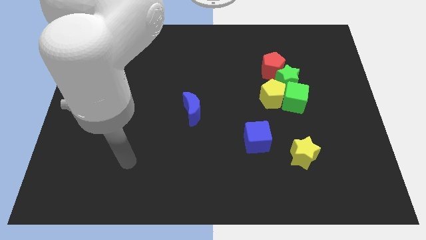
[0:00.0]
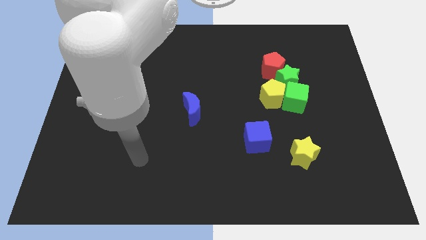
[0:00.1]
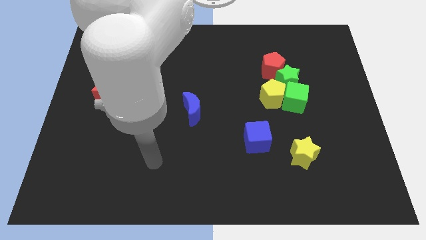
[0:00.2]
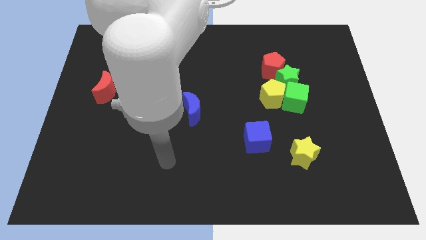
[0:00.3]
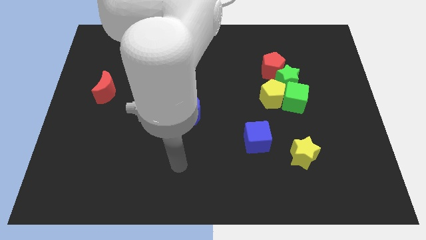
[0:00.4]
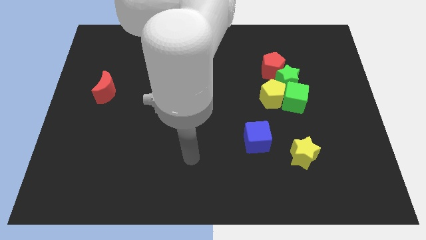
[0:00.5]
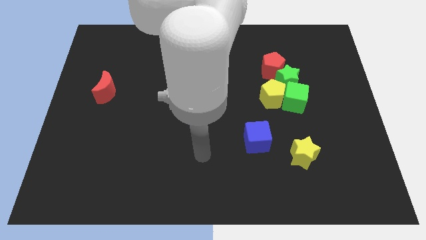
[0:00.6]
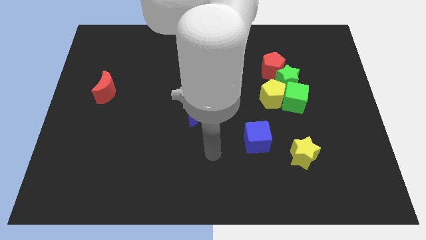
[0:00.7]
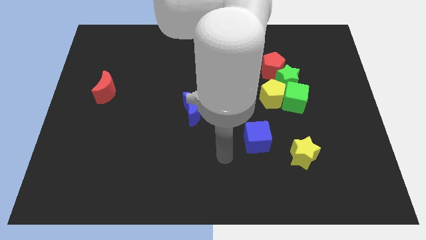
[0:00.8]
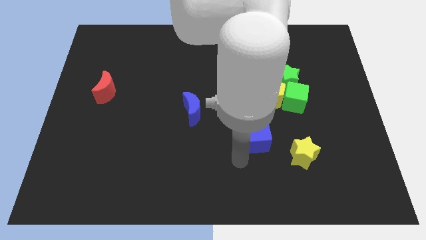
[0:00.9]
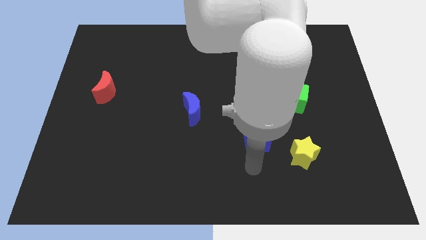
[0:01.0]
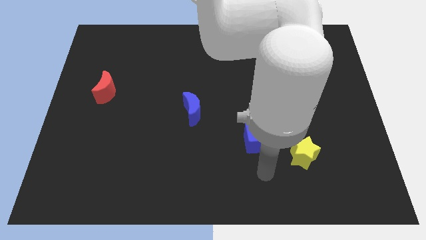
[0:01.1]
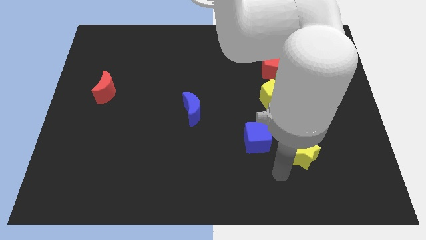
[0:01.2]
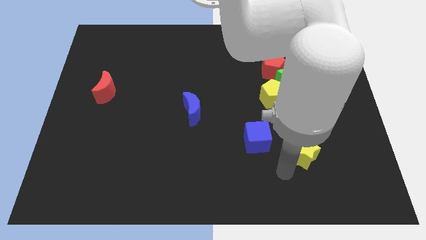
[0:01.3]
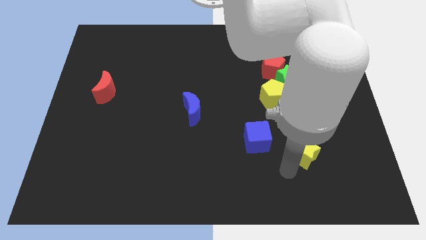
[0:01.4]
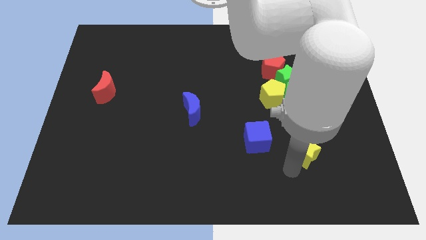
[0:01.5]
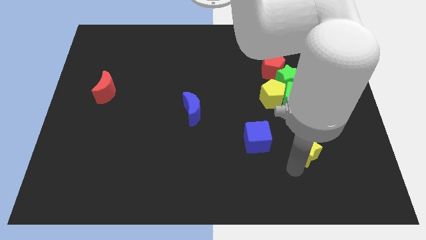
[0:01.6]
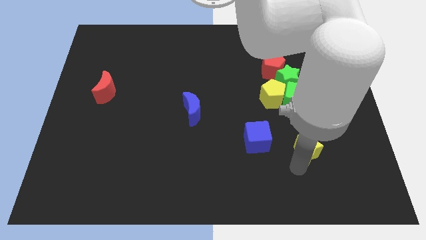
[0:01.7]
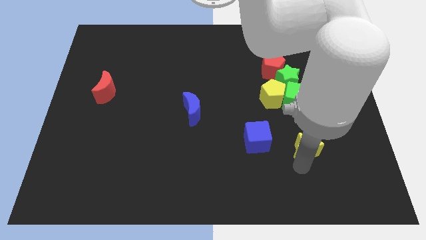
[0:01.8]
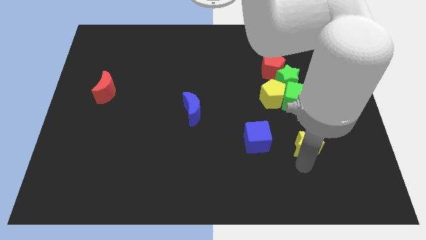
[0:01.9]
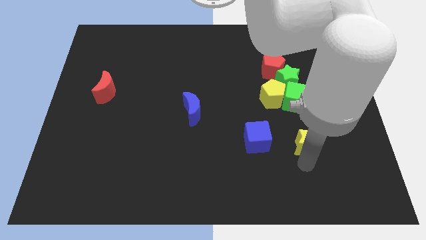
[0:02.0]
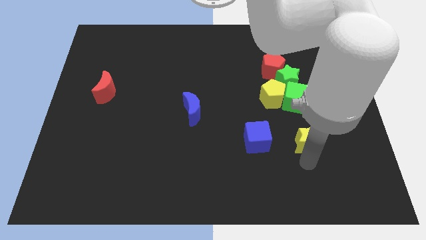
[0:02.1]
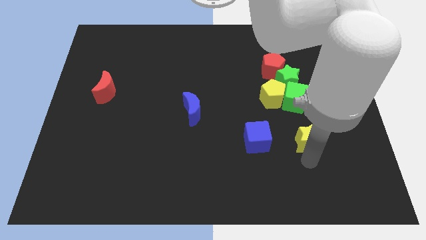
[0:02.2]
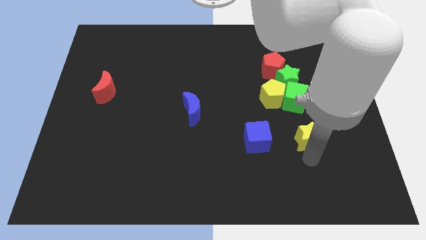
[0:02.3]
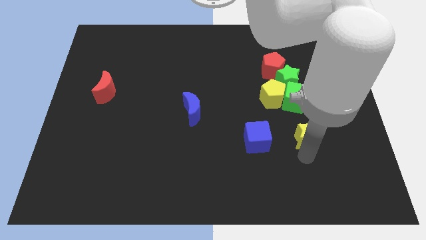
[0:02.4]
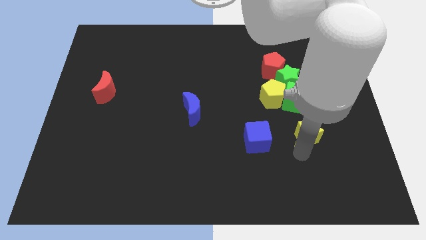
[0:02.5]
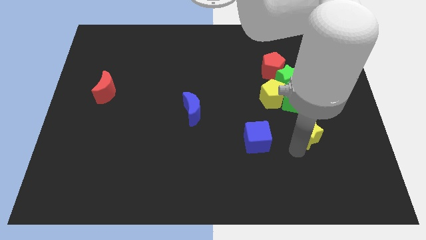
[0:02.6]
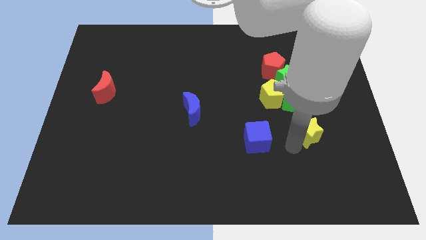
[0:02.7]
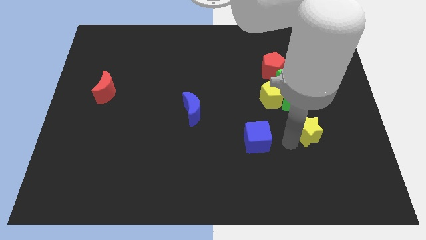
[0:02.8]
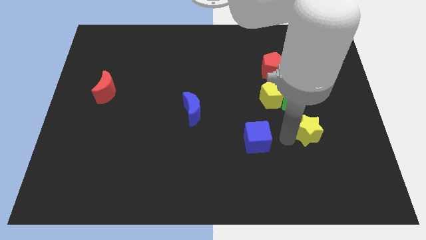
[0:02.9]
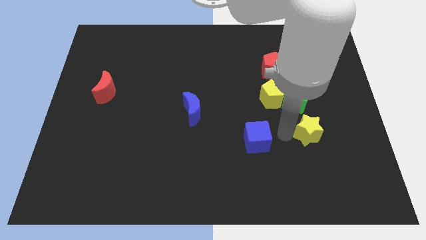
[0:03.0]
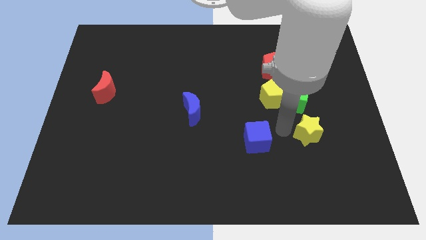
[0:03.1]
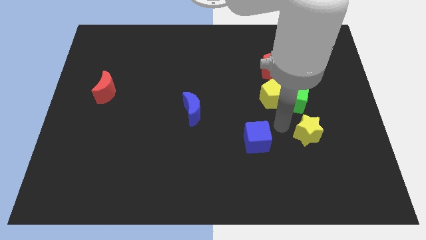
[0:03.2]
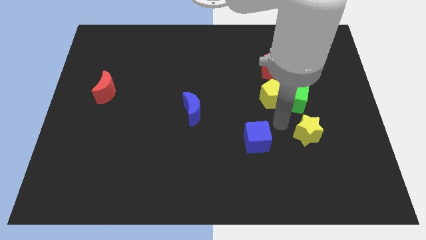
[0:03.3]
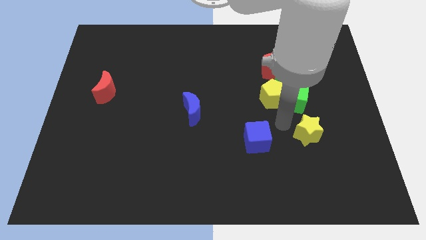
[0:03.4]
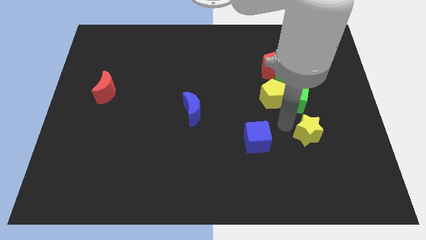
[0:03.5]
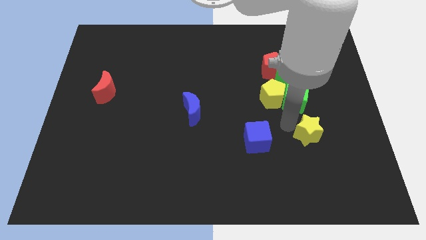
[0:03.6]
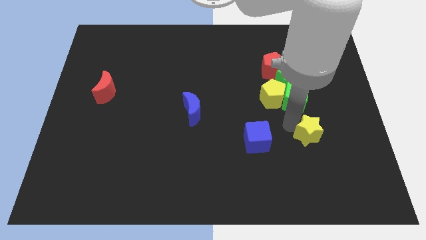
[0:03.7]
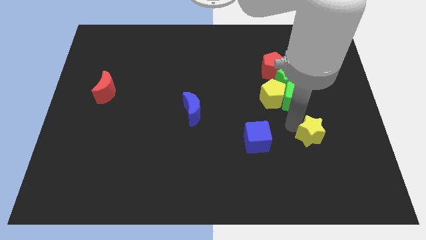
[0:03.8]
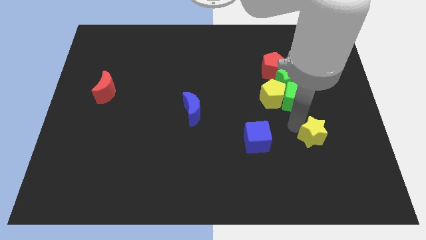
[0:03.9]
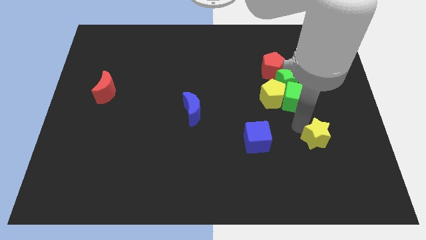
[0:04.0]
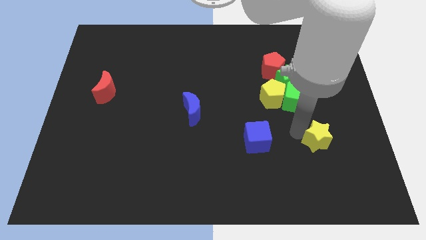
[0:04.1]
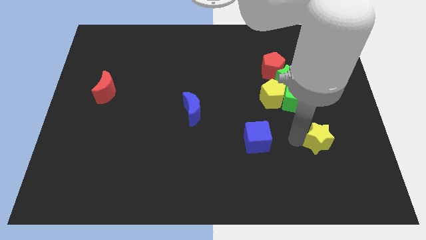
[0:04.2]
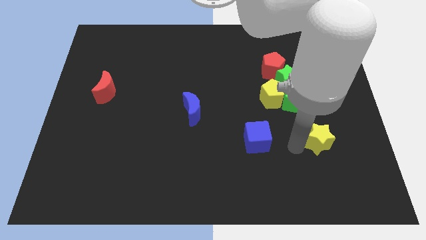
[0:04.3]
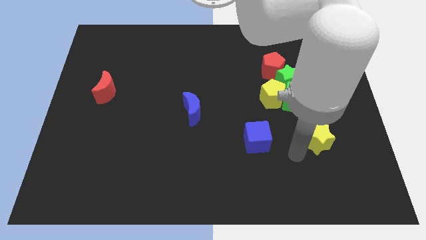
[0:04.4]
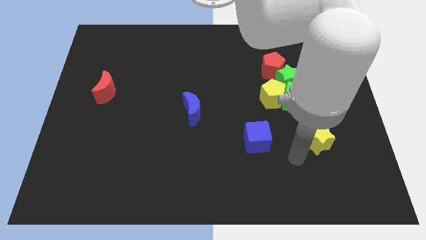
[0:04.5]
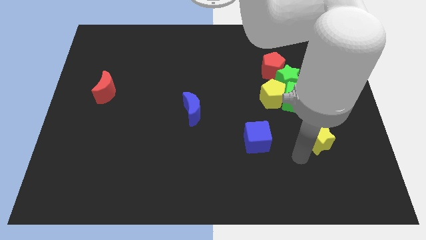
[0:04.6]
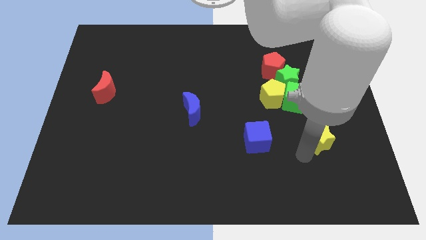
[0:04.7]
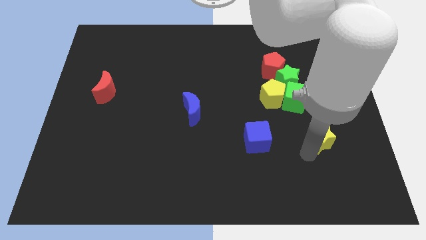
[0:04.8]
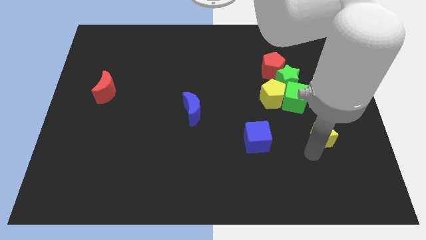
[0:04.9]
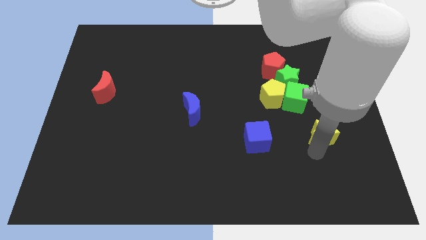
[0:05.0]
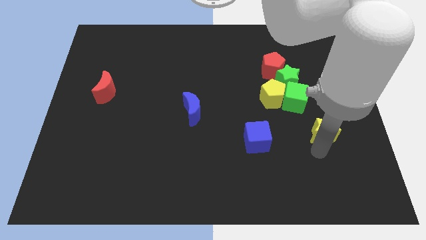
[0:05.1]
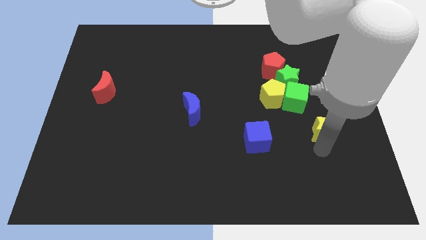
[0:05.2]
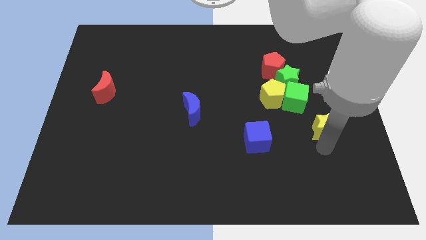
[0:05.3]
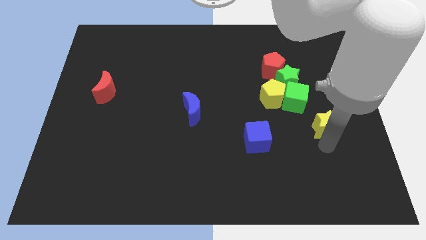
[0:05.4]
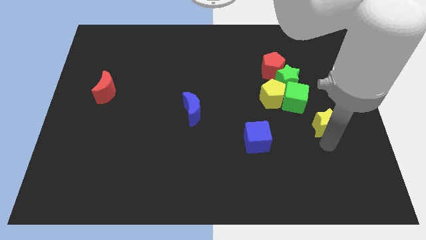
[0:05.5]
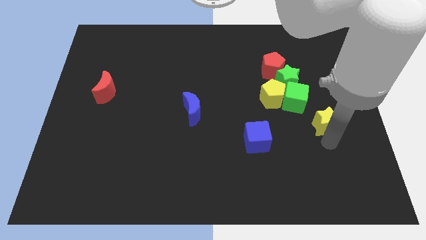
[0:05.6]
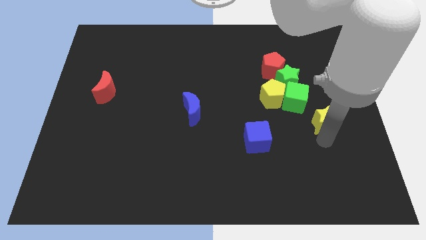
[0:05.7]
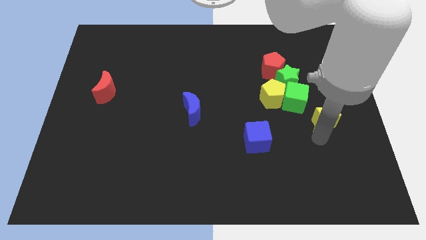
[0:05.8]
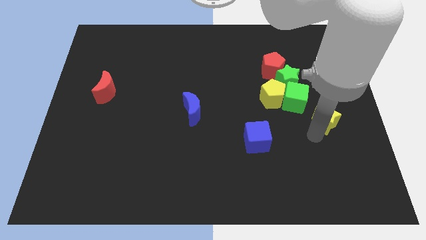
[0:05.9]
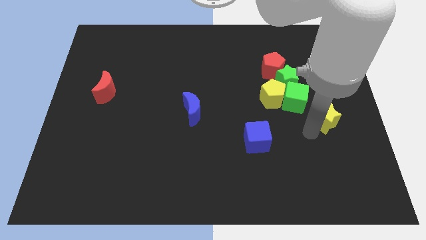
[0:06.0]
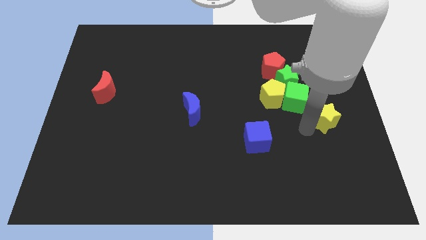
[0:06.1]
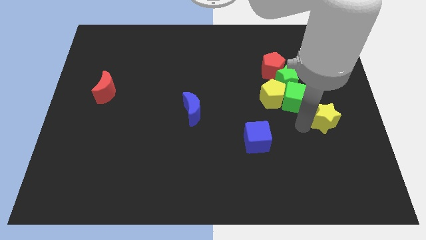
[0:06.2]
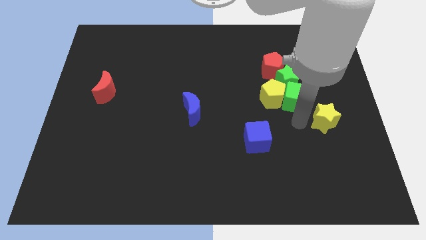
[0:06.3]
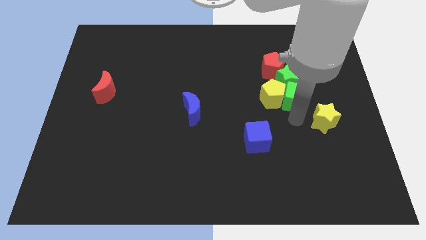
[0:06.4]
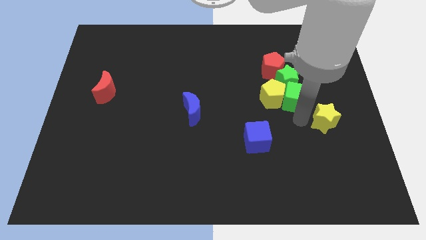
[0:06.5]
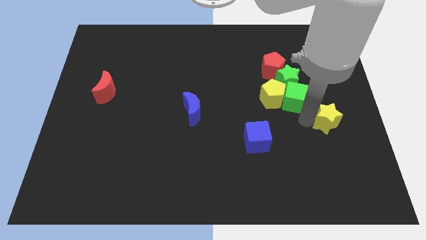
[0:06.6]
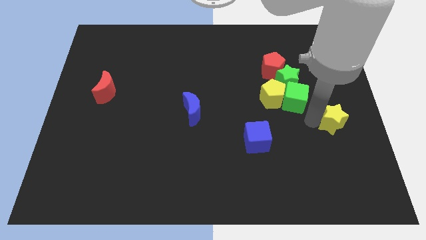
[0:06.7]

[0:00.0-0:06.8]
put the yellow star to the center right
